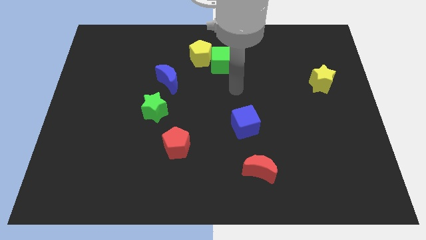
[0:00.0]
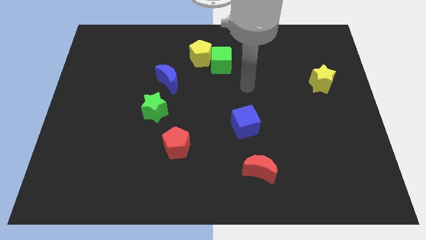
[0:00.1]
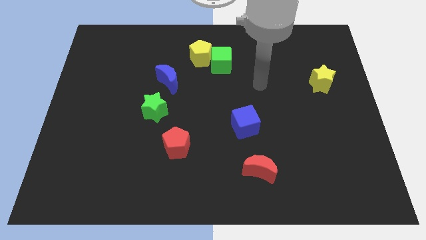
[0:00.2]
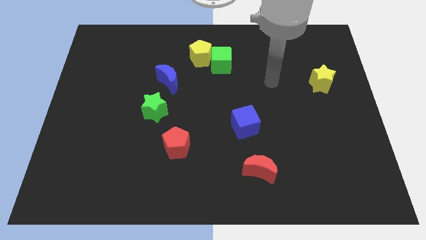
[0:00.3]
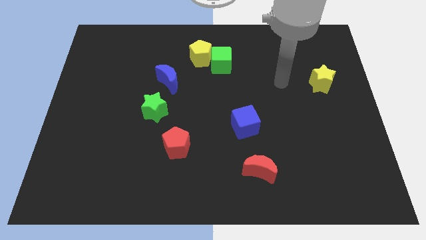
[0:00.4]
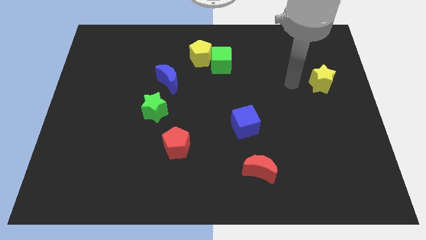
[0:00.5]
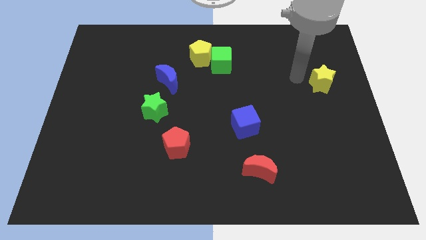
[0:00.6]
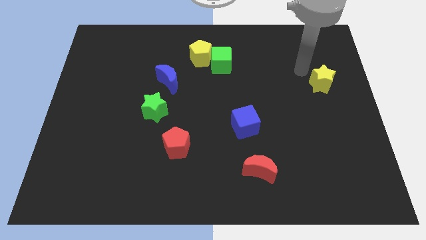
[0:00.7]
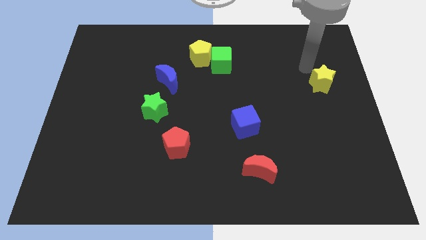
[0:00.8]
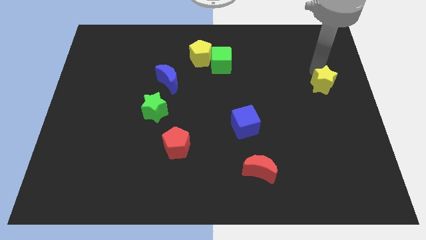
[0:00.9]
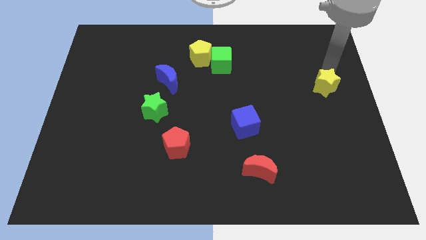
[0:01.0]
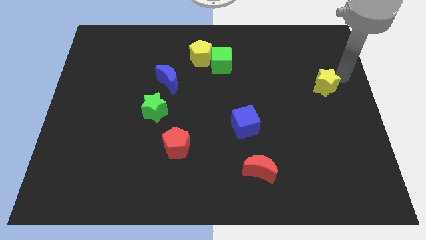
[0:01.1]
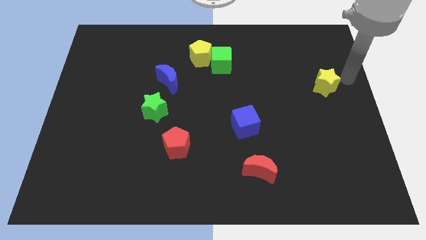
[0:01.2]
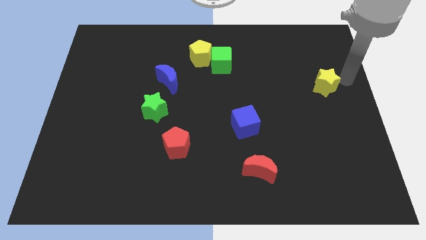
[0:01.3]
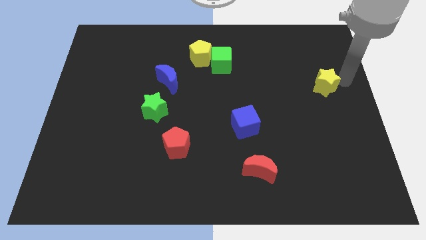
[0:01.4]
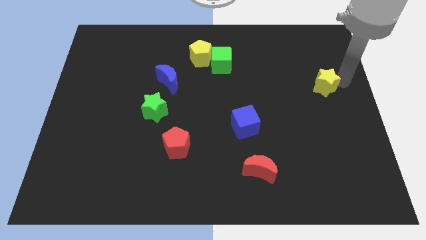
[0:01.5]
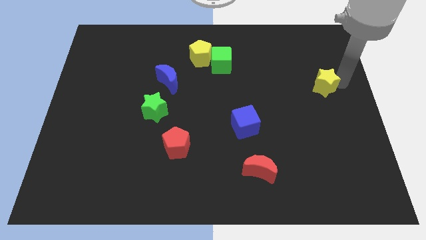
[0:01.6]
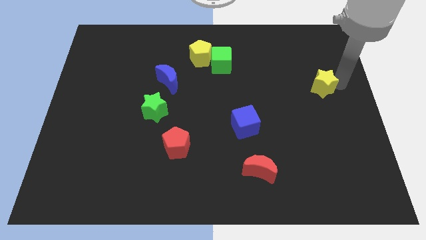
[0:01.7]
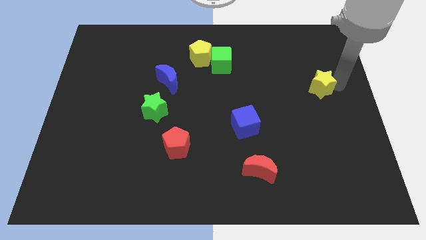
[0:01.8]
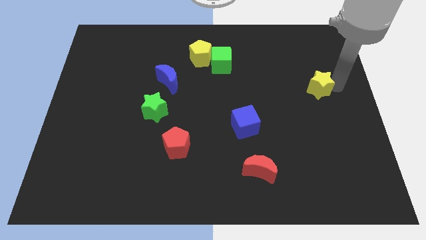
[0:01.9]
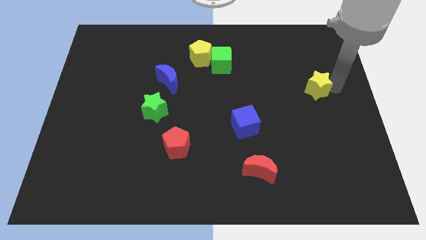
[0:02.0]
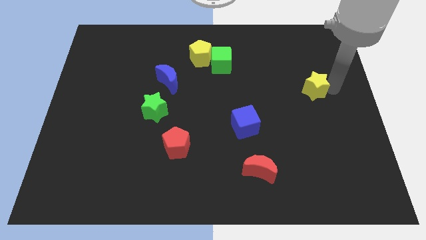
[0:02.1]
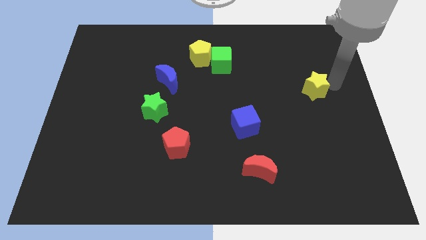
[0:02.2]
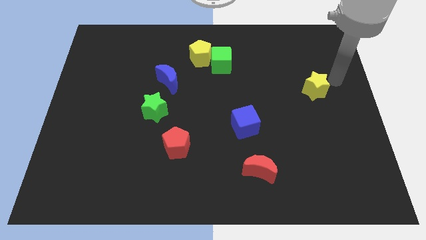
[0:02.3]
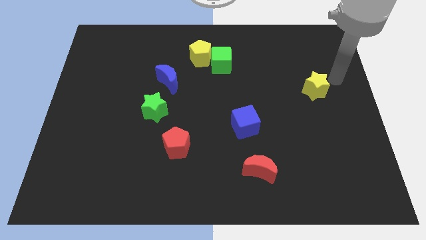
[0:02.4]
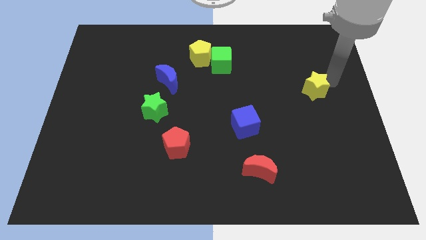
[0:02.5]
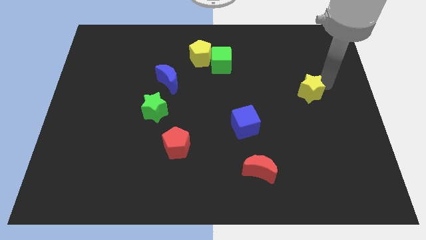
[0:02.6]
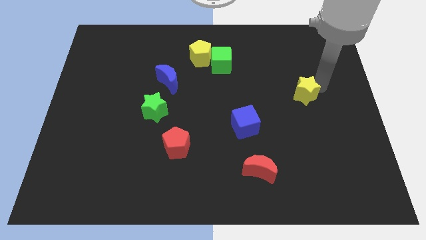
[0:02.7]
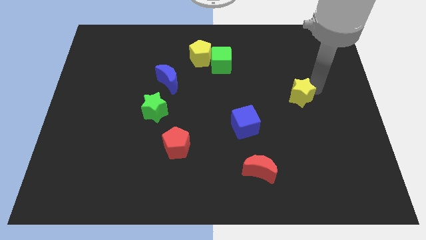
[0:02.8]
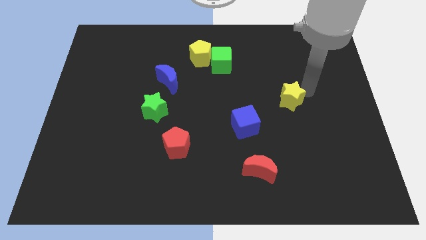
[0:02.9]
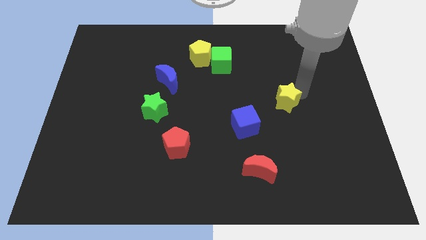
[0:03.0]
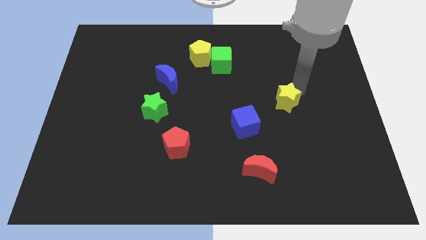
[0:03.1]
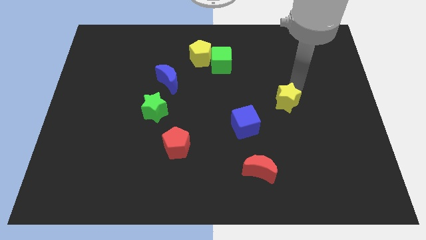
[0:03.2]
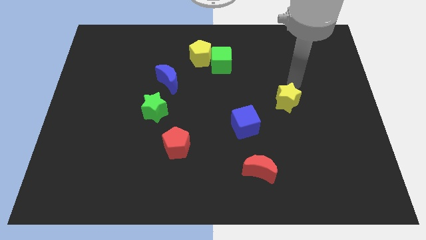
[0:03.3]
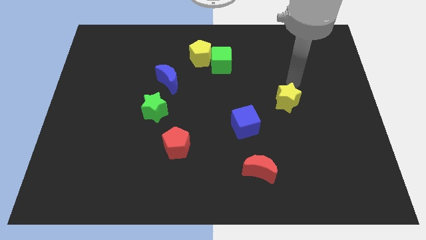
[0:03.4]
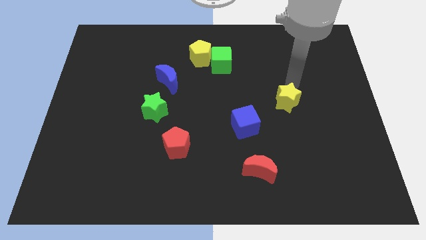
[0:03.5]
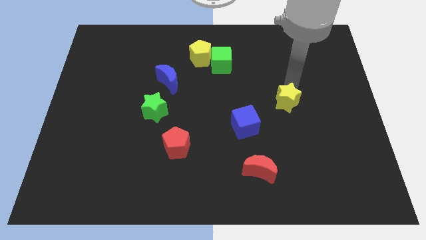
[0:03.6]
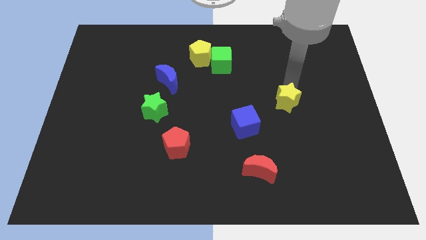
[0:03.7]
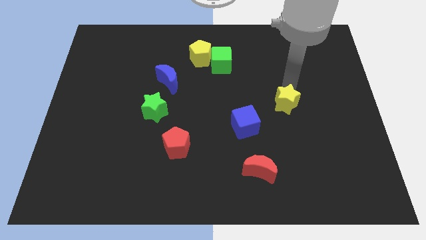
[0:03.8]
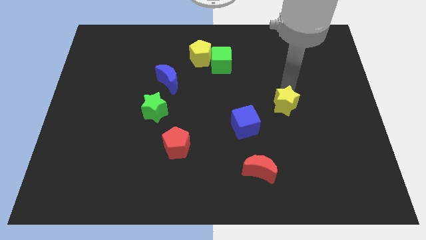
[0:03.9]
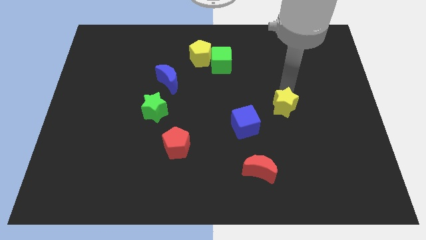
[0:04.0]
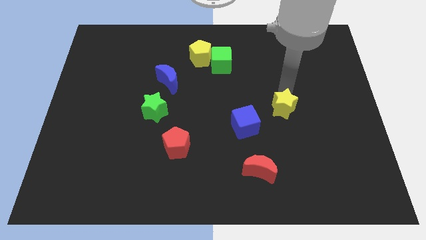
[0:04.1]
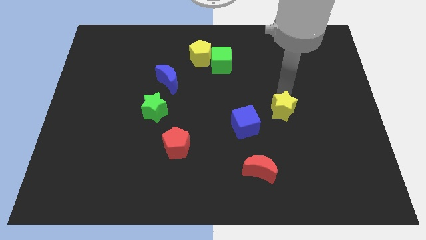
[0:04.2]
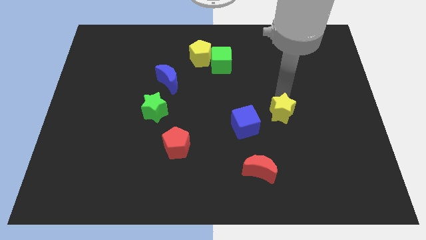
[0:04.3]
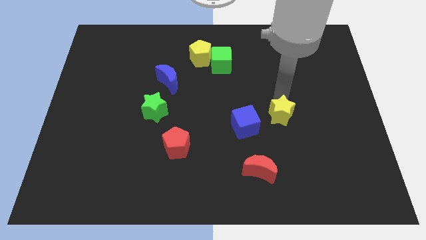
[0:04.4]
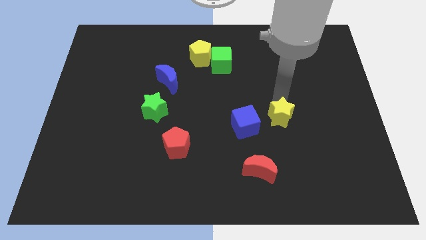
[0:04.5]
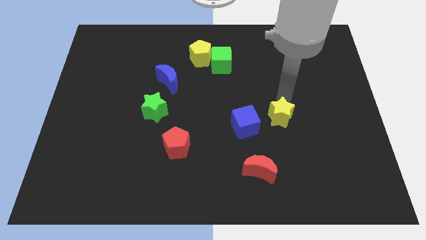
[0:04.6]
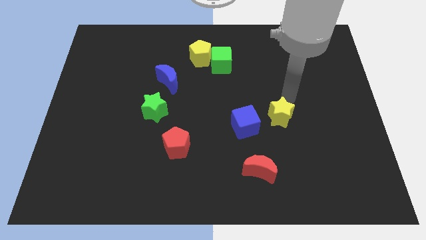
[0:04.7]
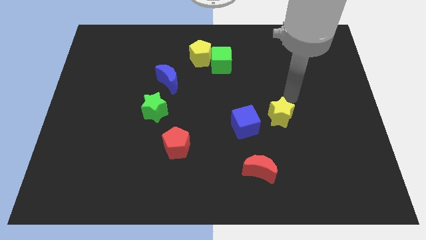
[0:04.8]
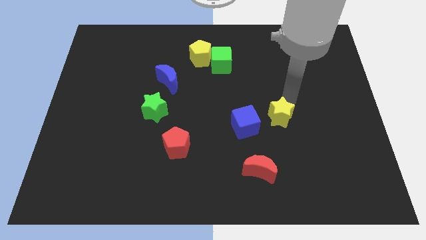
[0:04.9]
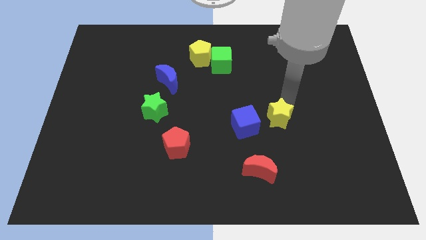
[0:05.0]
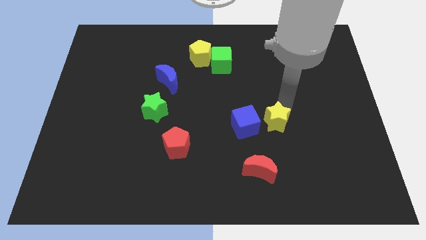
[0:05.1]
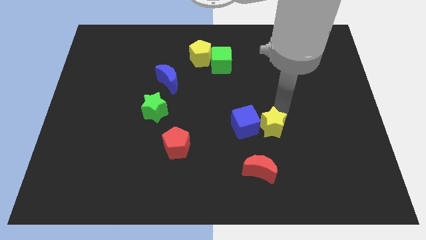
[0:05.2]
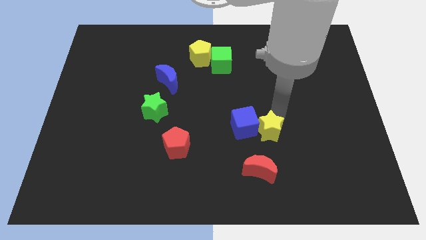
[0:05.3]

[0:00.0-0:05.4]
push the yellow star diagonally downwards and to the left

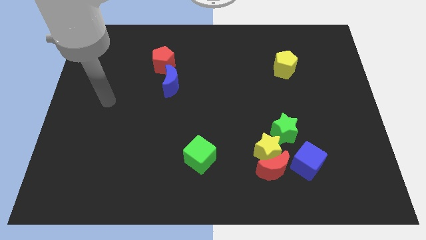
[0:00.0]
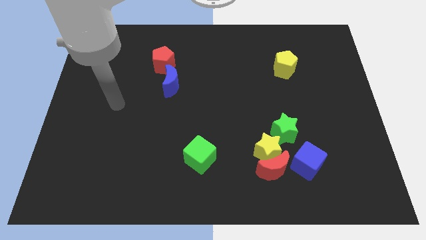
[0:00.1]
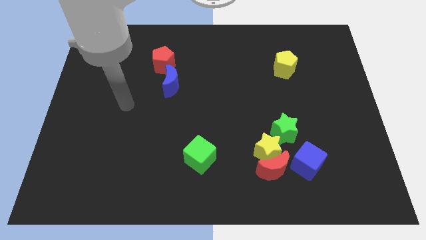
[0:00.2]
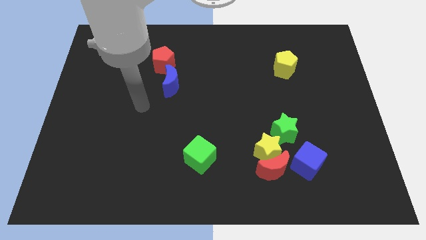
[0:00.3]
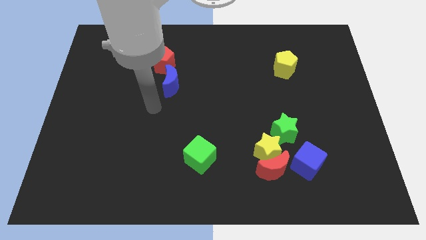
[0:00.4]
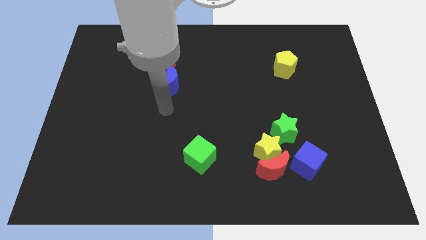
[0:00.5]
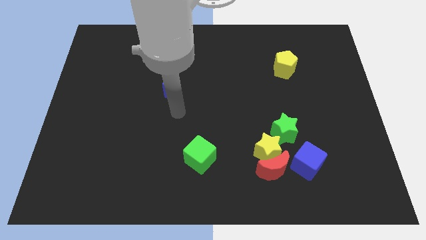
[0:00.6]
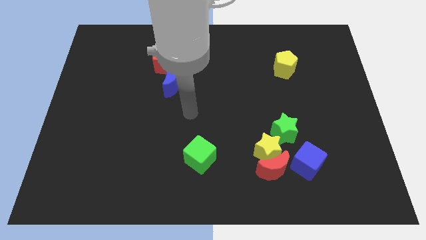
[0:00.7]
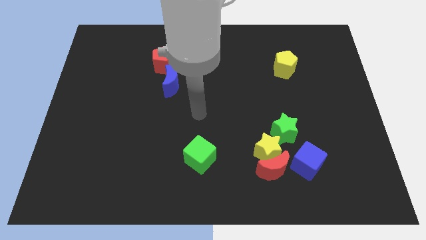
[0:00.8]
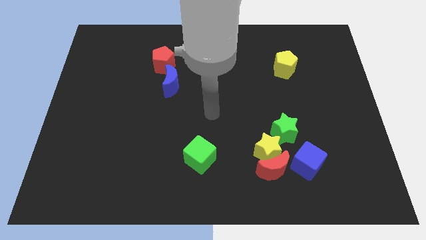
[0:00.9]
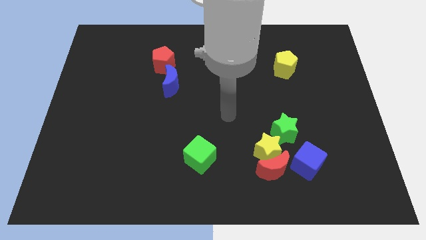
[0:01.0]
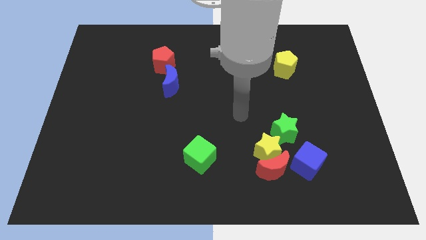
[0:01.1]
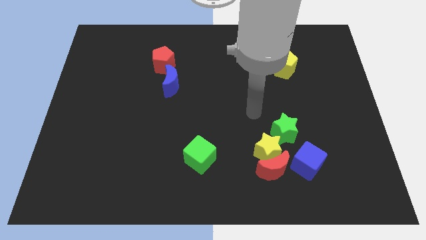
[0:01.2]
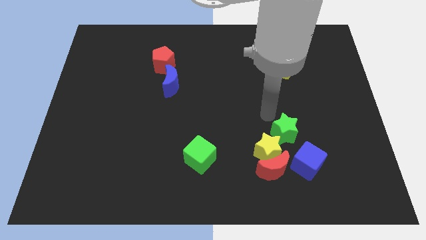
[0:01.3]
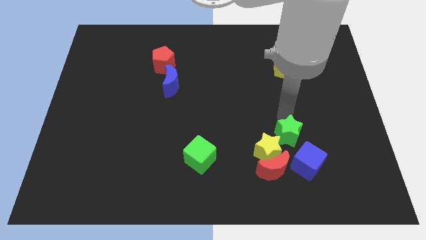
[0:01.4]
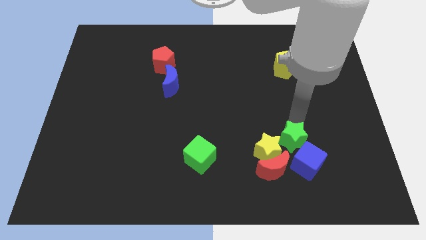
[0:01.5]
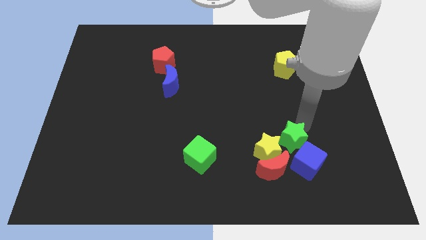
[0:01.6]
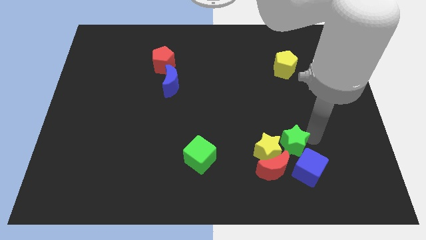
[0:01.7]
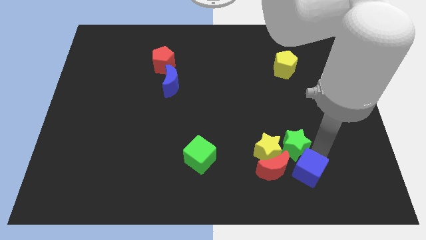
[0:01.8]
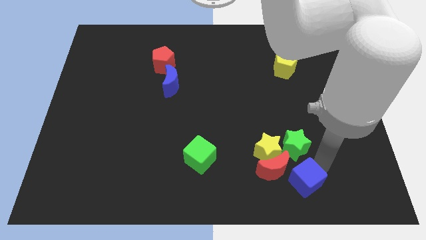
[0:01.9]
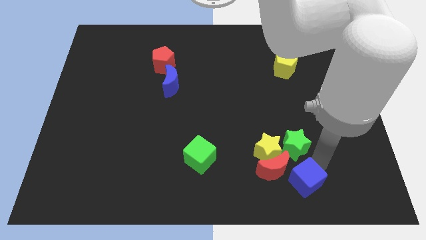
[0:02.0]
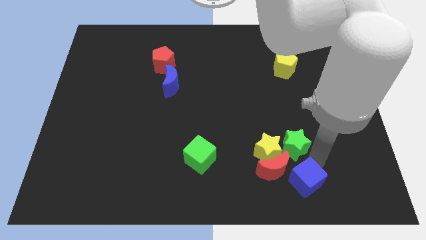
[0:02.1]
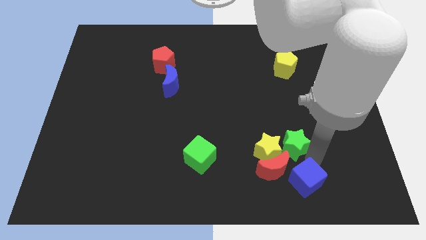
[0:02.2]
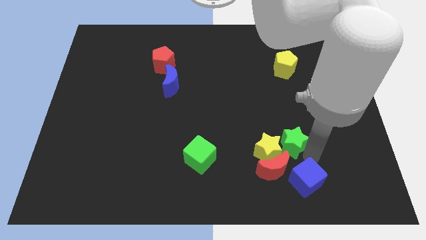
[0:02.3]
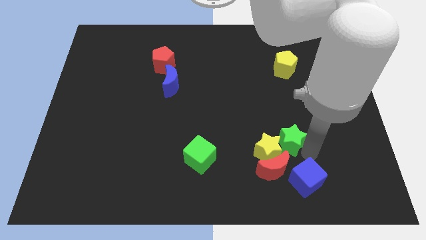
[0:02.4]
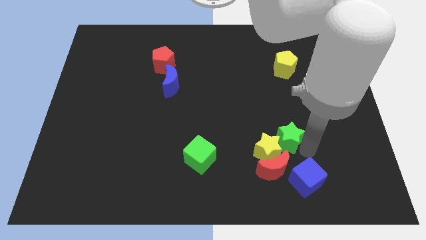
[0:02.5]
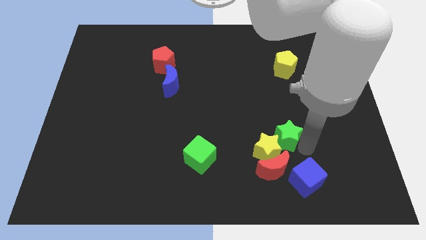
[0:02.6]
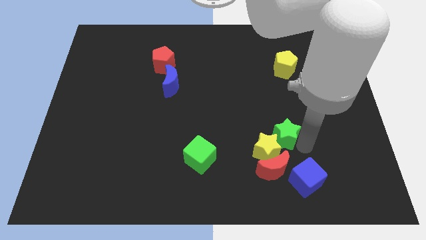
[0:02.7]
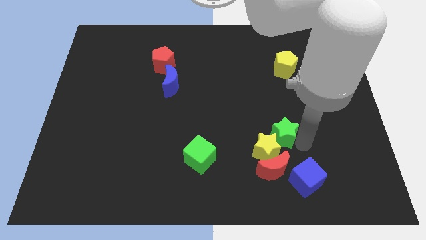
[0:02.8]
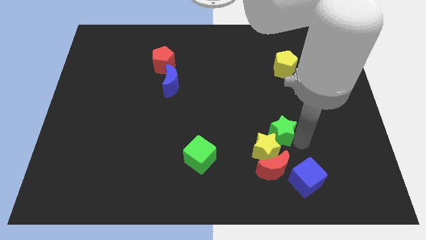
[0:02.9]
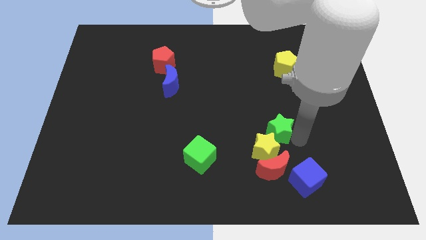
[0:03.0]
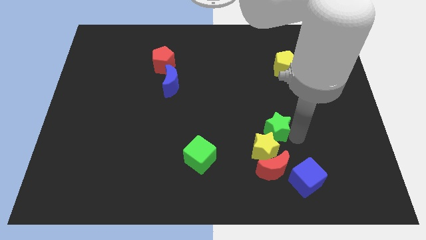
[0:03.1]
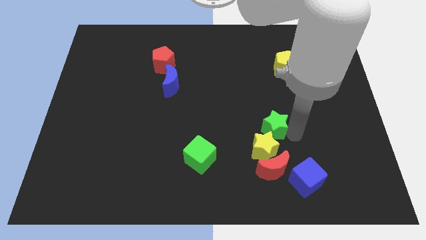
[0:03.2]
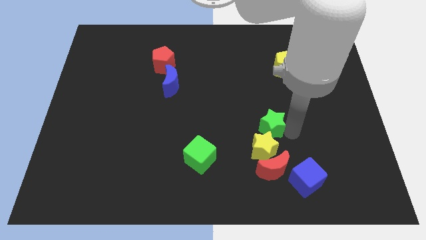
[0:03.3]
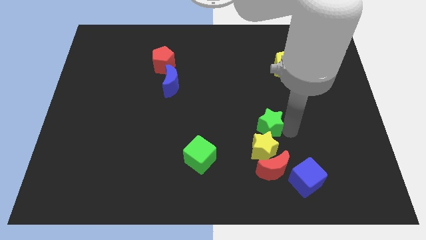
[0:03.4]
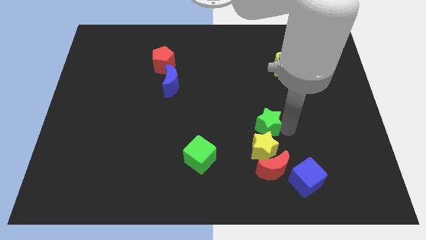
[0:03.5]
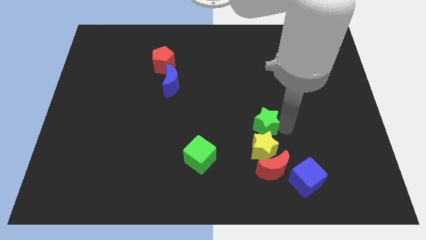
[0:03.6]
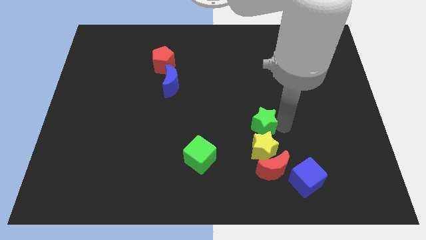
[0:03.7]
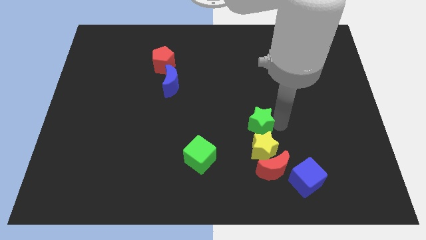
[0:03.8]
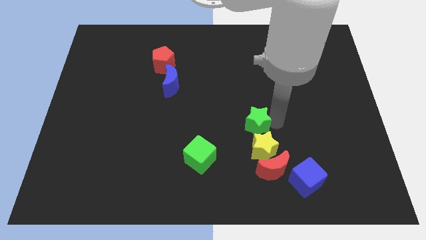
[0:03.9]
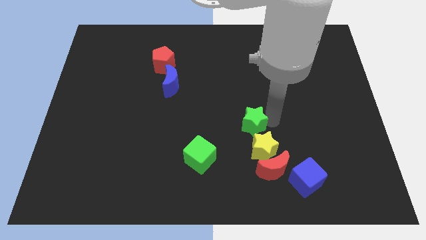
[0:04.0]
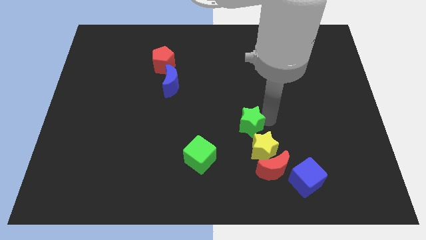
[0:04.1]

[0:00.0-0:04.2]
push the green star to the left a little bit
